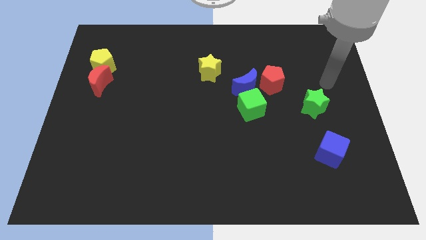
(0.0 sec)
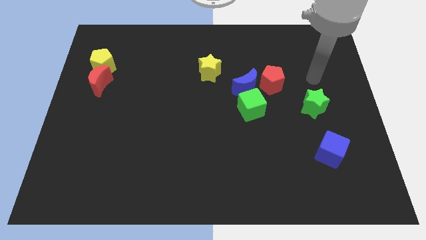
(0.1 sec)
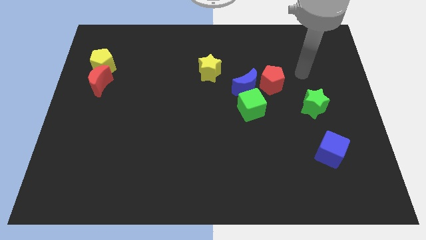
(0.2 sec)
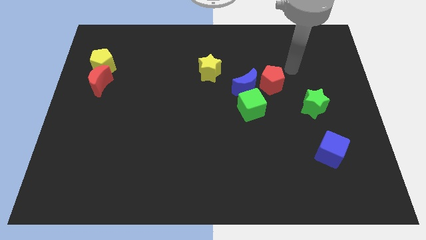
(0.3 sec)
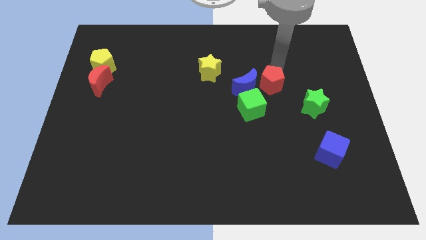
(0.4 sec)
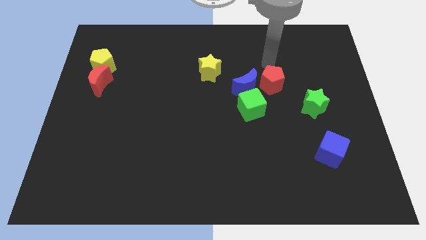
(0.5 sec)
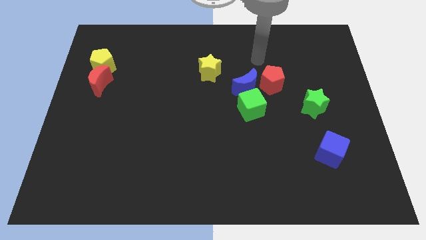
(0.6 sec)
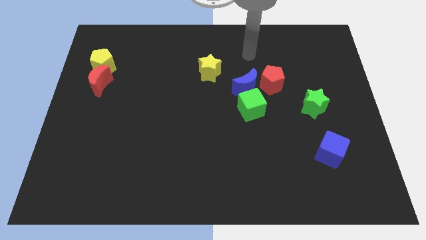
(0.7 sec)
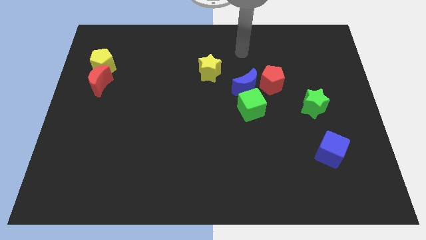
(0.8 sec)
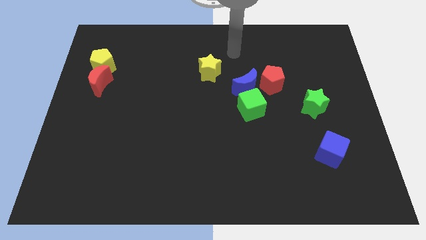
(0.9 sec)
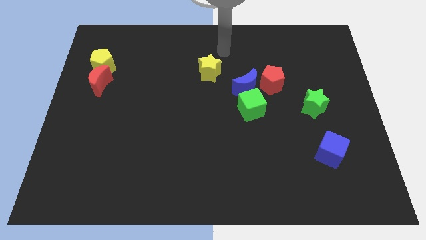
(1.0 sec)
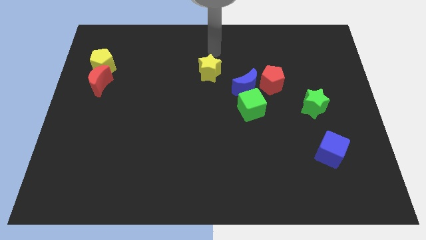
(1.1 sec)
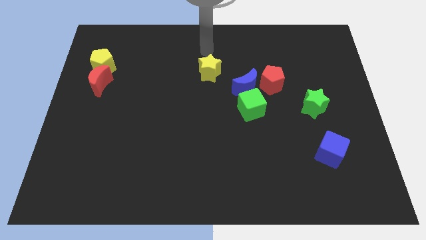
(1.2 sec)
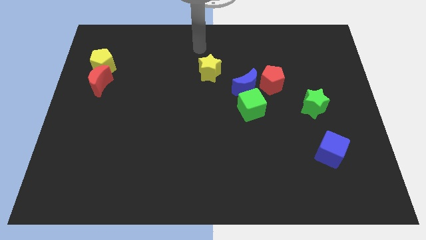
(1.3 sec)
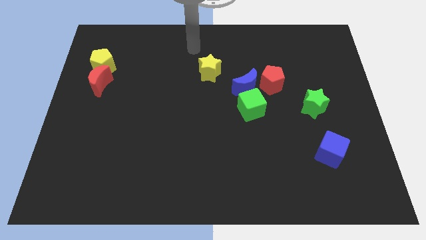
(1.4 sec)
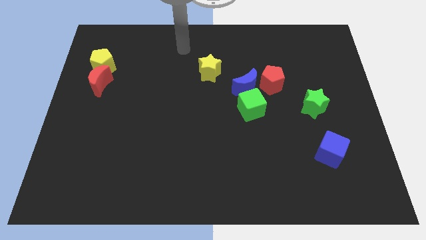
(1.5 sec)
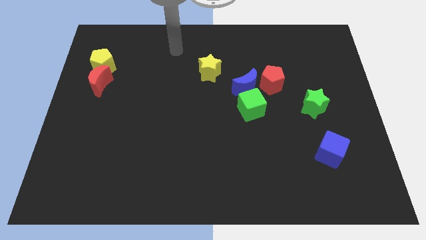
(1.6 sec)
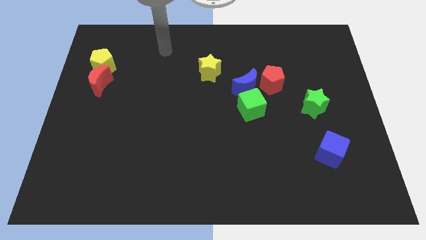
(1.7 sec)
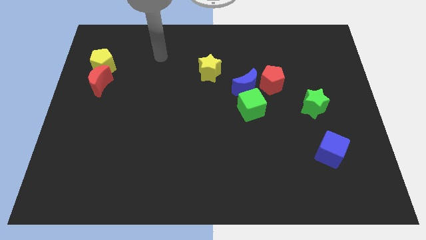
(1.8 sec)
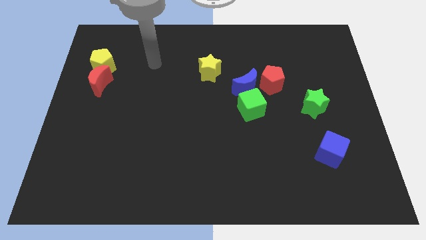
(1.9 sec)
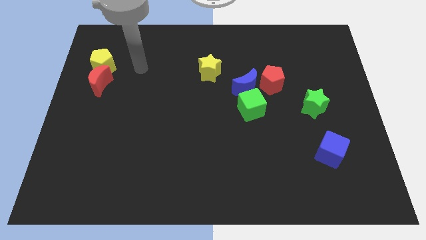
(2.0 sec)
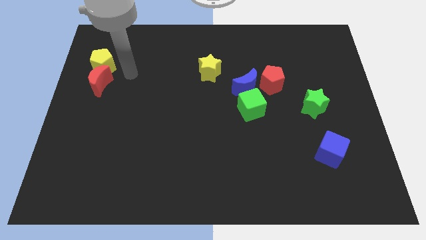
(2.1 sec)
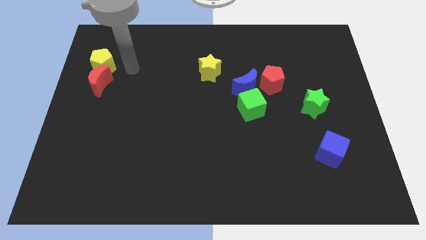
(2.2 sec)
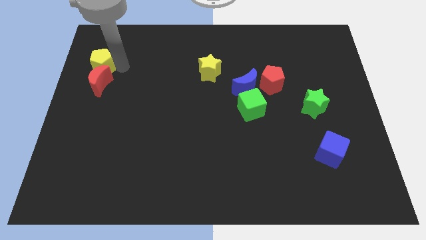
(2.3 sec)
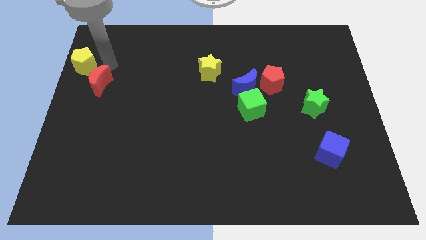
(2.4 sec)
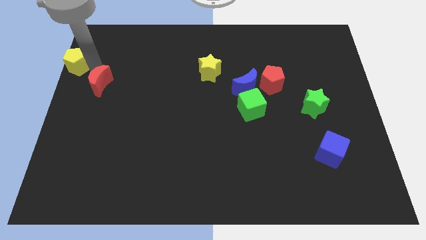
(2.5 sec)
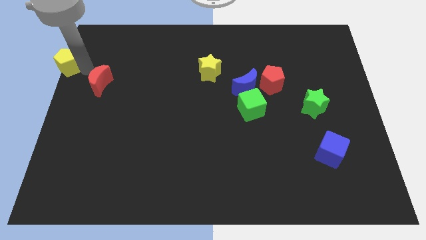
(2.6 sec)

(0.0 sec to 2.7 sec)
move the red moon away from the yellow pentagon

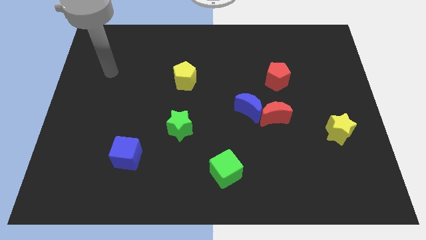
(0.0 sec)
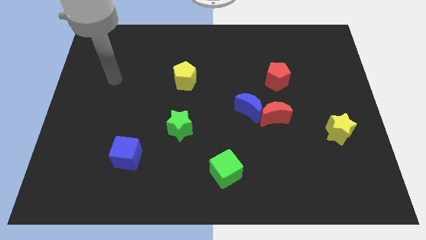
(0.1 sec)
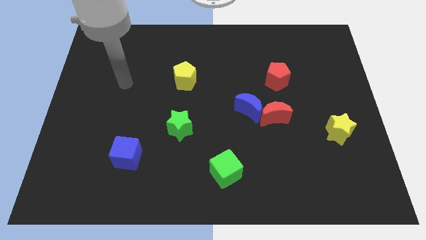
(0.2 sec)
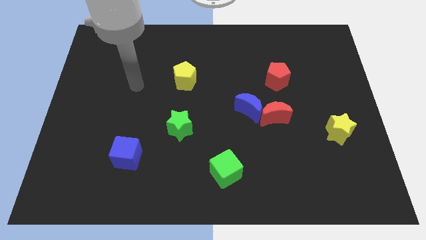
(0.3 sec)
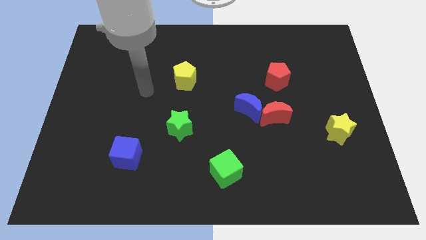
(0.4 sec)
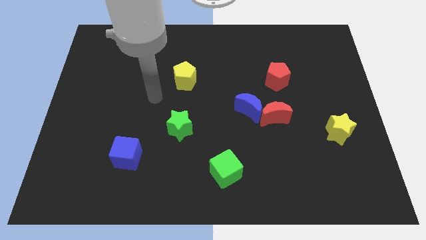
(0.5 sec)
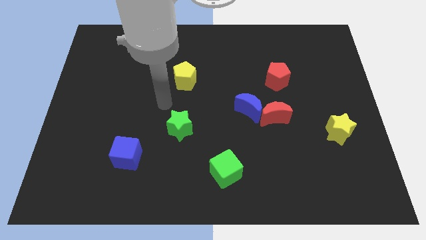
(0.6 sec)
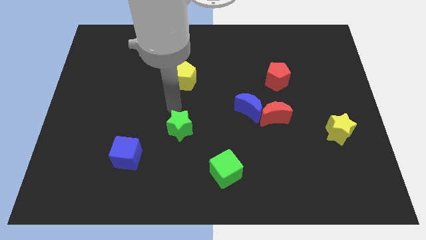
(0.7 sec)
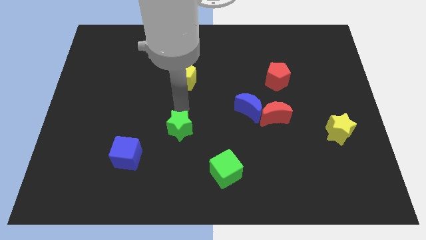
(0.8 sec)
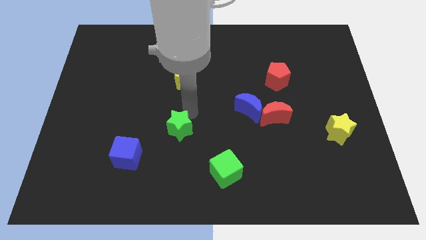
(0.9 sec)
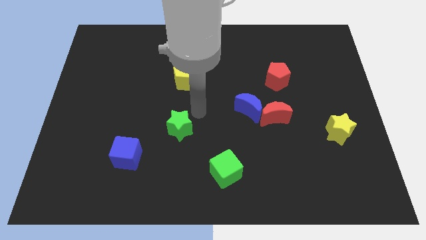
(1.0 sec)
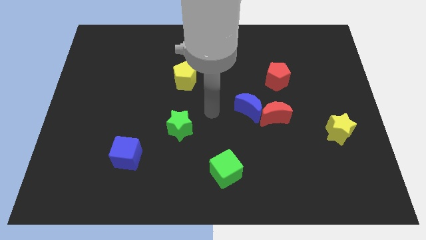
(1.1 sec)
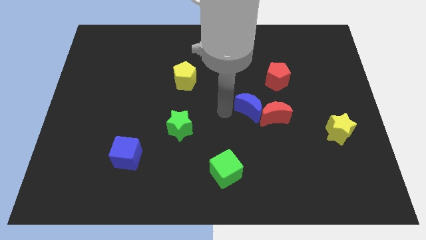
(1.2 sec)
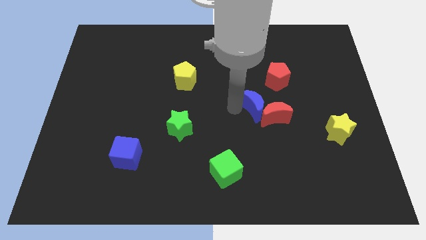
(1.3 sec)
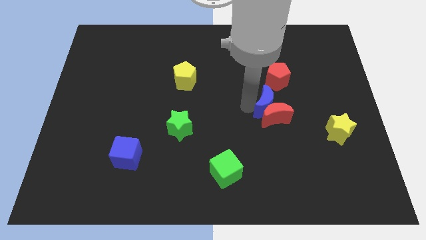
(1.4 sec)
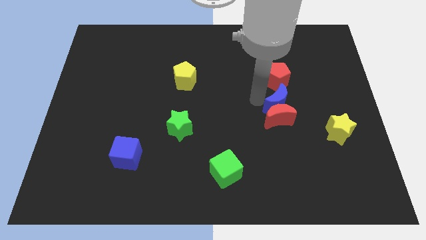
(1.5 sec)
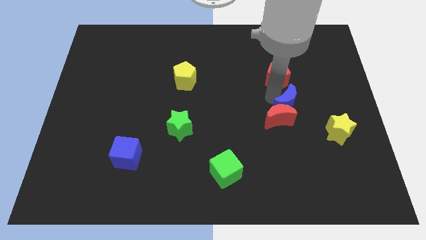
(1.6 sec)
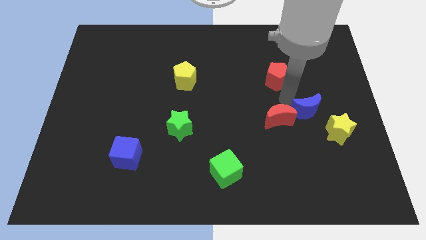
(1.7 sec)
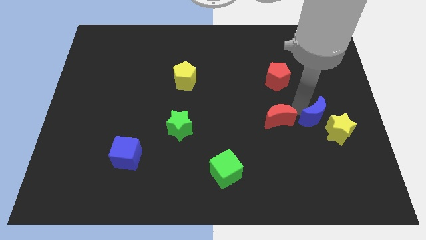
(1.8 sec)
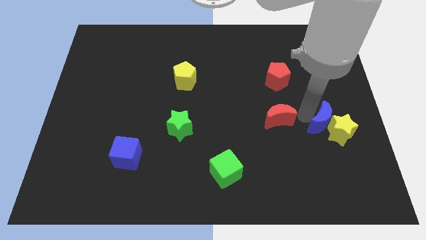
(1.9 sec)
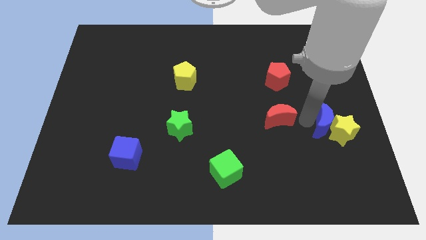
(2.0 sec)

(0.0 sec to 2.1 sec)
separate the red moon from the blue moon

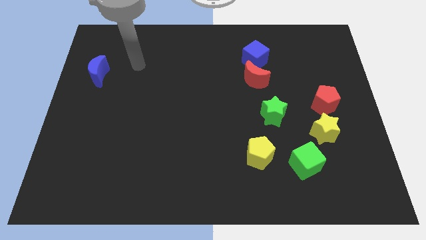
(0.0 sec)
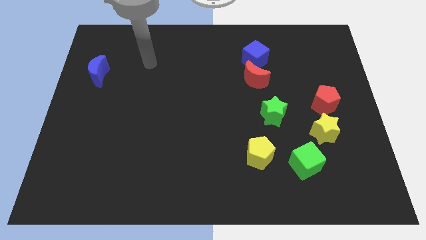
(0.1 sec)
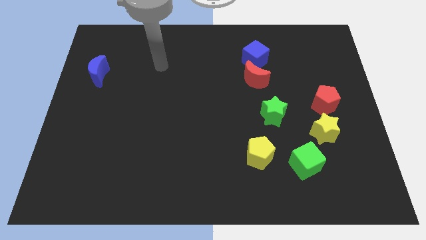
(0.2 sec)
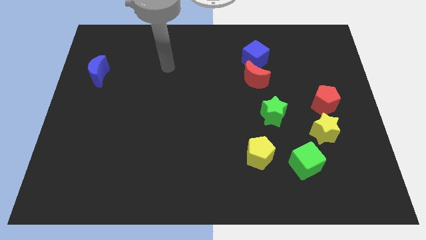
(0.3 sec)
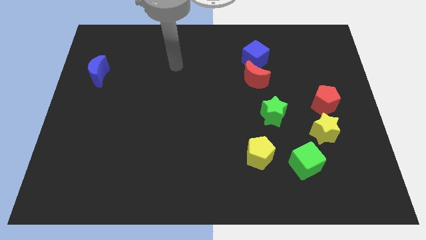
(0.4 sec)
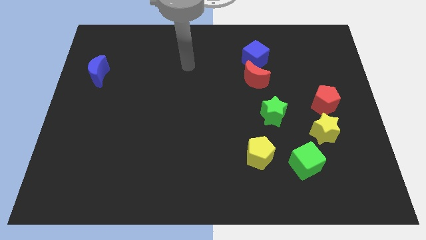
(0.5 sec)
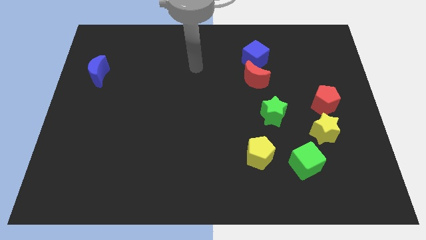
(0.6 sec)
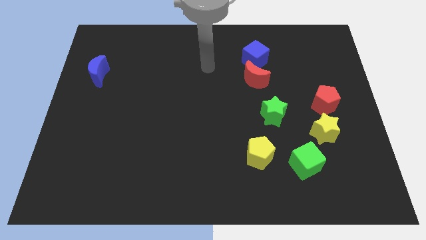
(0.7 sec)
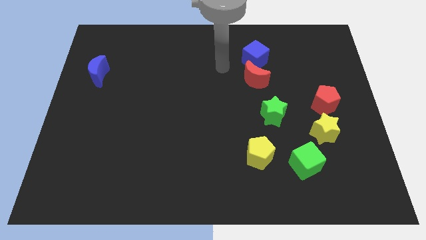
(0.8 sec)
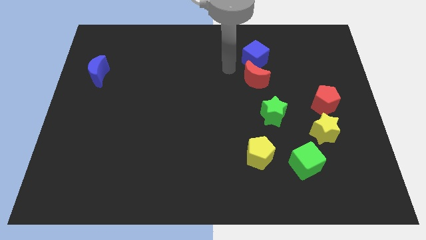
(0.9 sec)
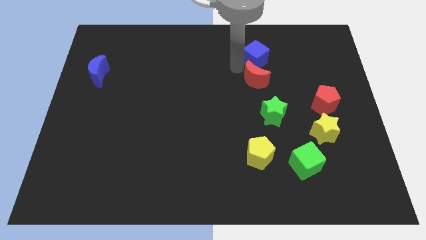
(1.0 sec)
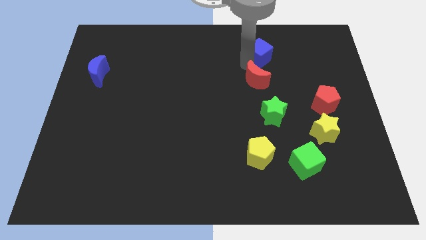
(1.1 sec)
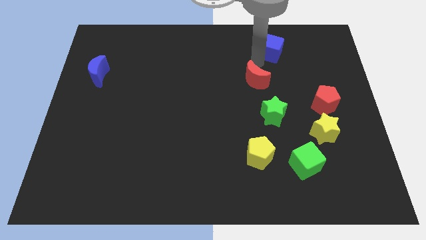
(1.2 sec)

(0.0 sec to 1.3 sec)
move the red moon away from the blue cube

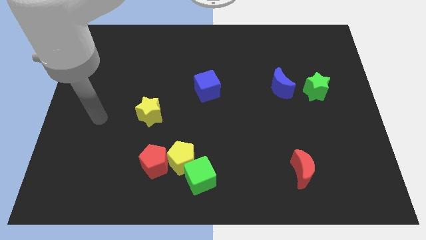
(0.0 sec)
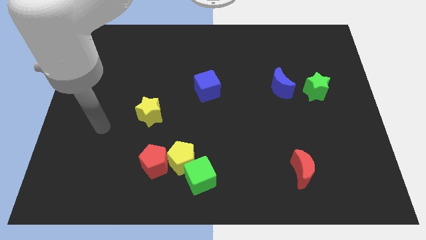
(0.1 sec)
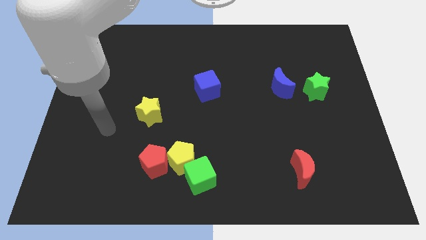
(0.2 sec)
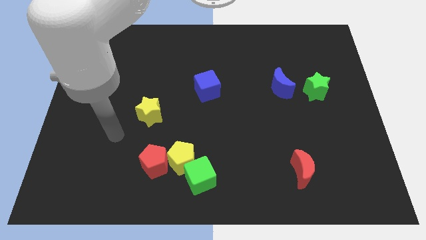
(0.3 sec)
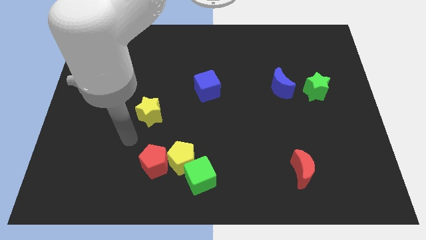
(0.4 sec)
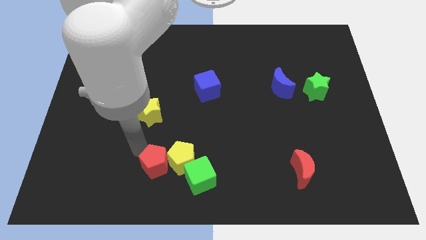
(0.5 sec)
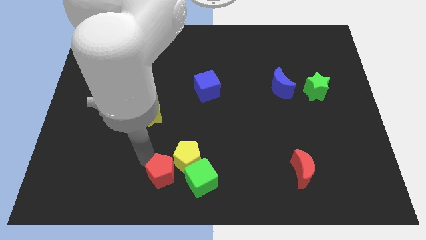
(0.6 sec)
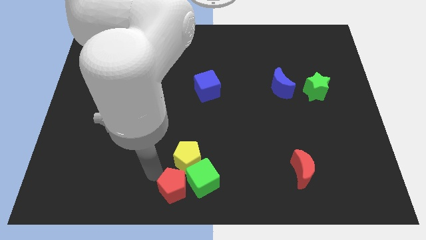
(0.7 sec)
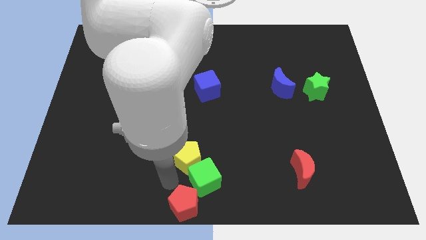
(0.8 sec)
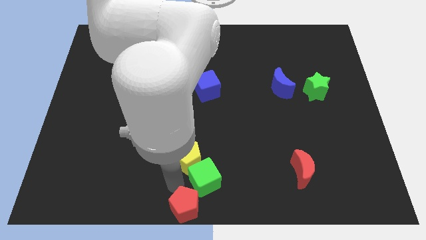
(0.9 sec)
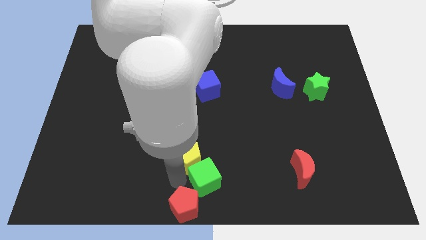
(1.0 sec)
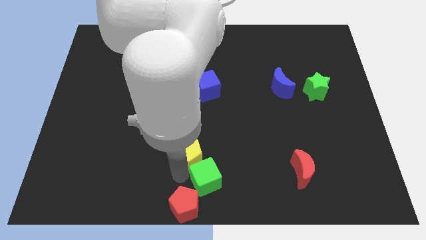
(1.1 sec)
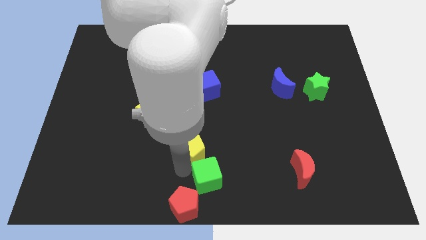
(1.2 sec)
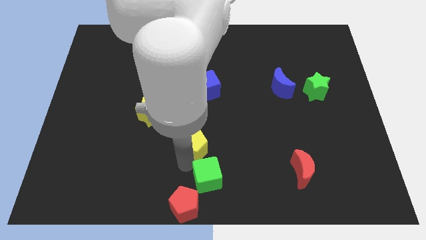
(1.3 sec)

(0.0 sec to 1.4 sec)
move the yellow pentagon away from the red pentagon and green cube

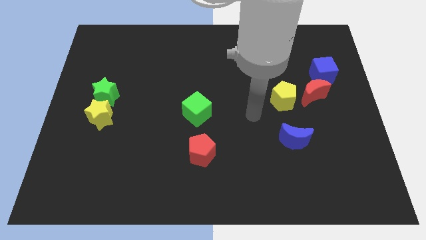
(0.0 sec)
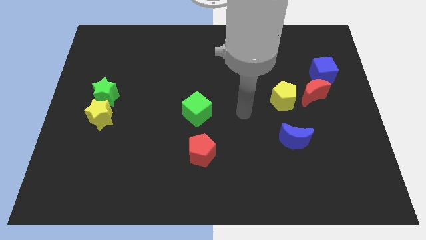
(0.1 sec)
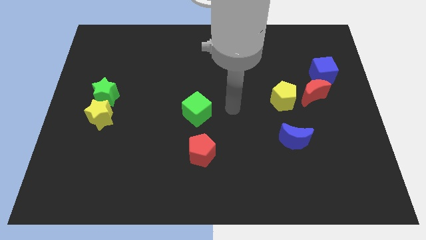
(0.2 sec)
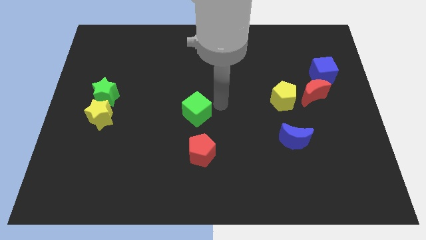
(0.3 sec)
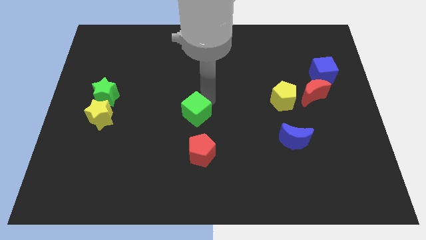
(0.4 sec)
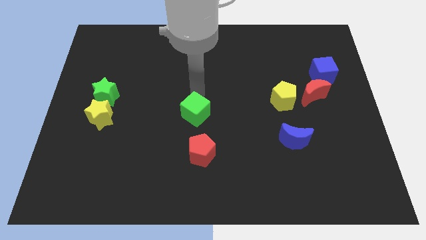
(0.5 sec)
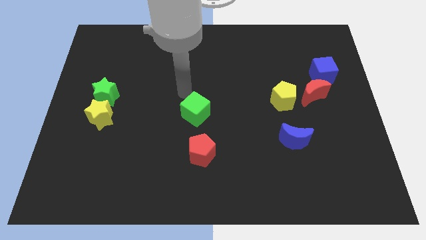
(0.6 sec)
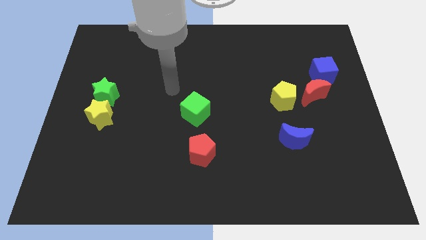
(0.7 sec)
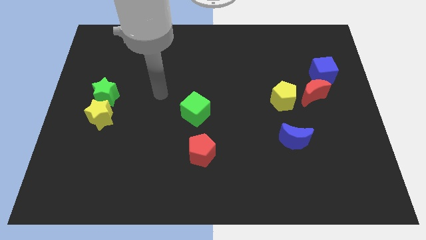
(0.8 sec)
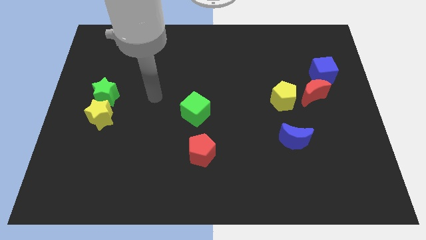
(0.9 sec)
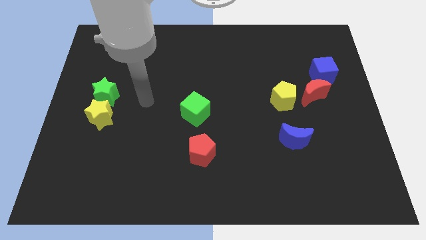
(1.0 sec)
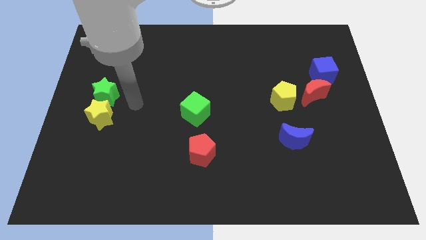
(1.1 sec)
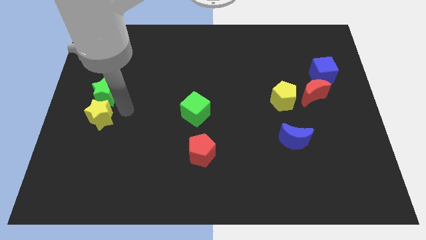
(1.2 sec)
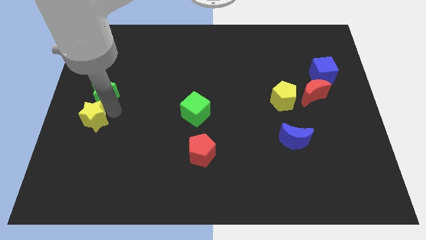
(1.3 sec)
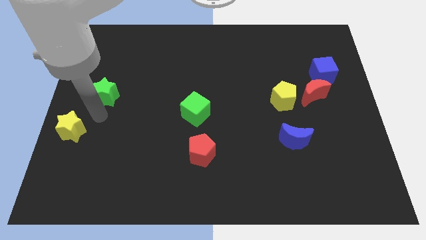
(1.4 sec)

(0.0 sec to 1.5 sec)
move the green star away from the yellow star

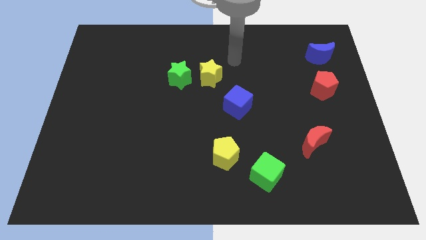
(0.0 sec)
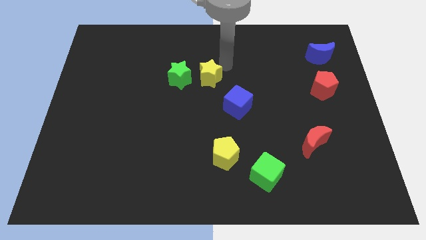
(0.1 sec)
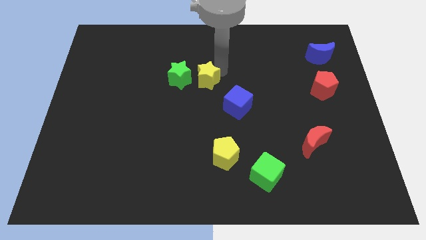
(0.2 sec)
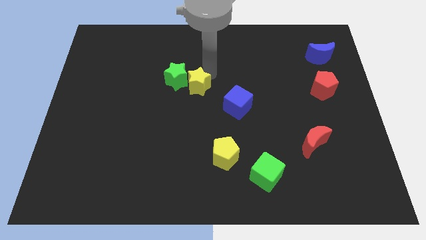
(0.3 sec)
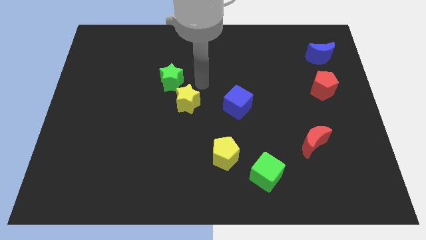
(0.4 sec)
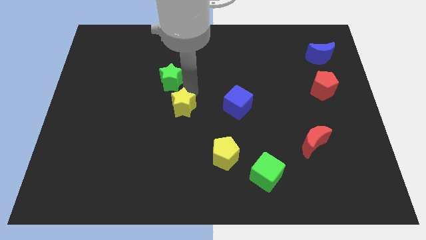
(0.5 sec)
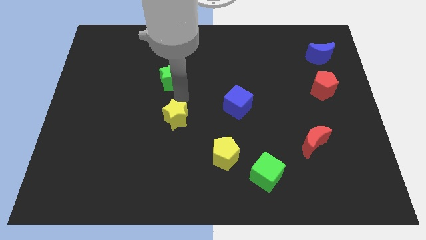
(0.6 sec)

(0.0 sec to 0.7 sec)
separate the green star from the yellow star
